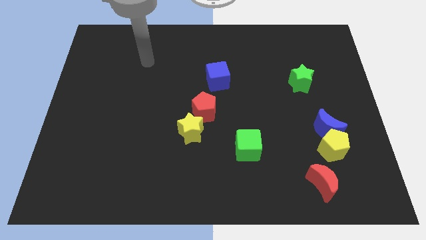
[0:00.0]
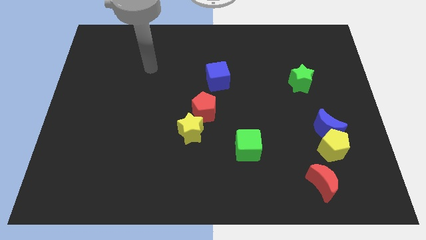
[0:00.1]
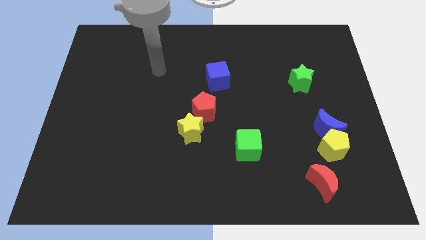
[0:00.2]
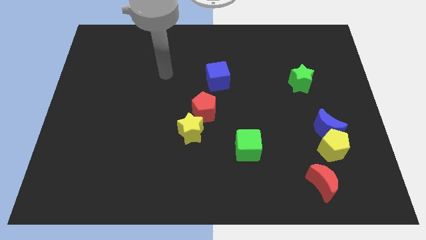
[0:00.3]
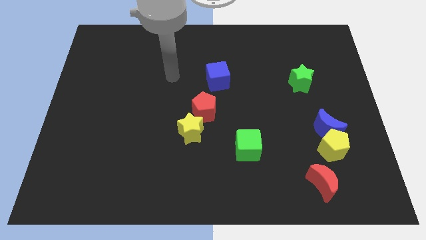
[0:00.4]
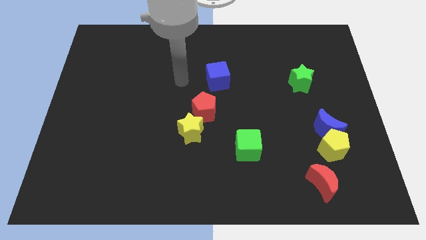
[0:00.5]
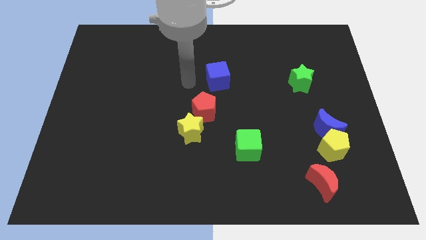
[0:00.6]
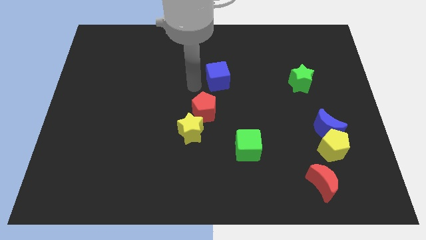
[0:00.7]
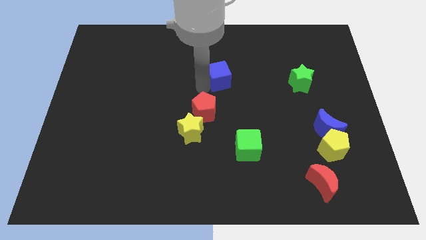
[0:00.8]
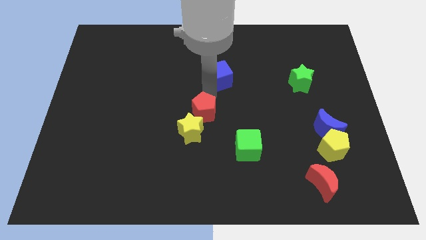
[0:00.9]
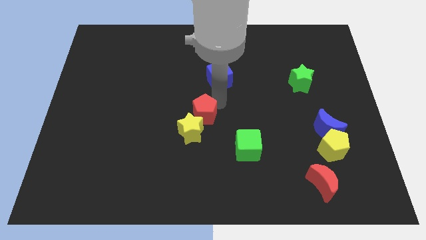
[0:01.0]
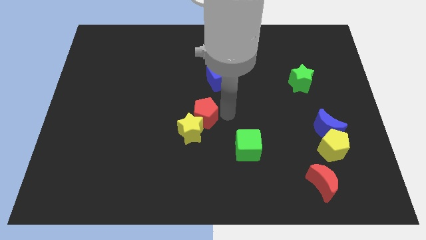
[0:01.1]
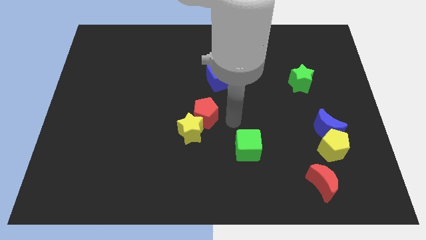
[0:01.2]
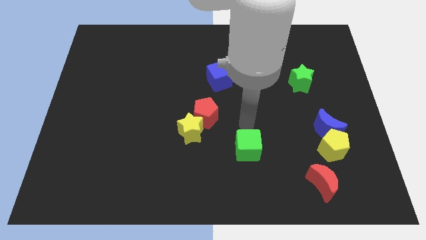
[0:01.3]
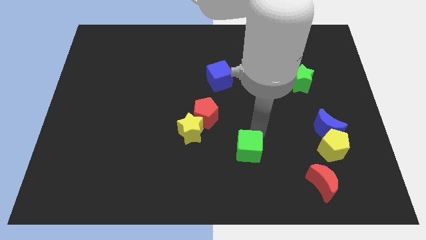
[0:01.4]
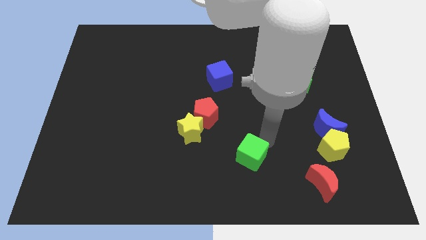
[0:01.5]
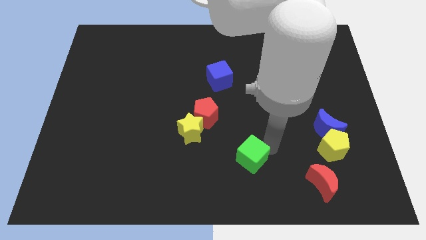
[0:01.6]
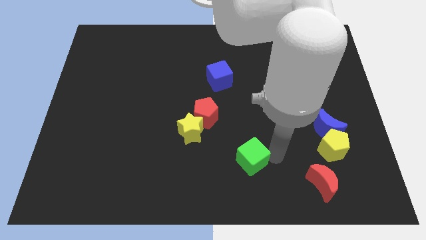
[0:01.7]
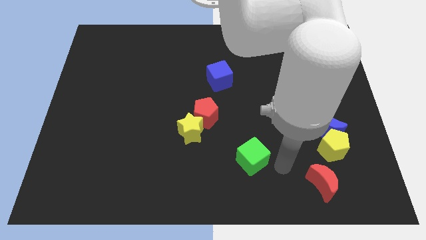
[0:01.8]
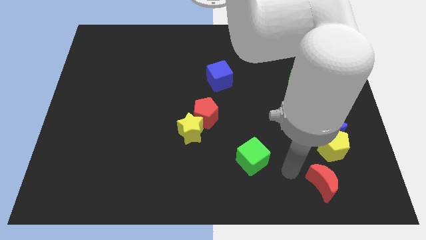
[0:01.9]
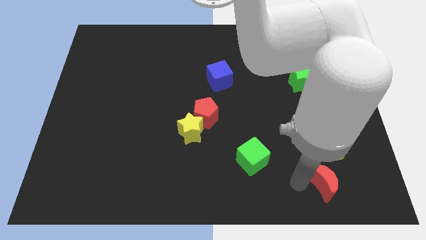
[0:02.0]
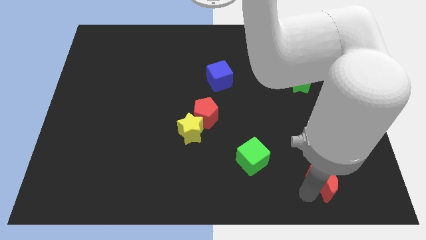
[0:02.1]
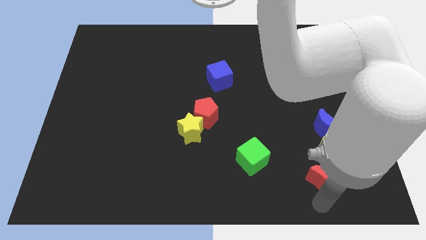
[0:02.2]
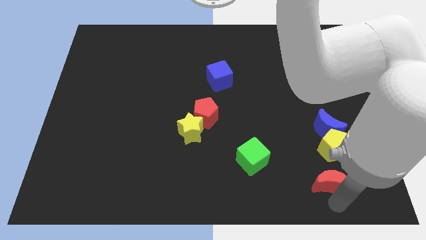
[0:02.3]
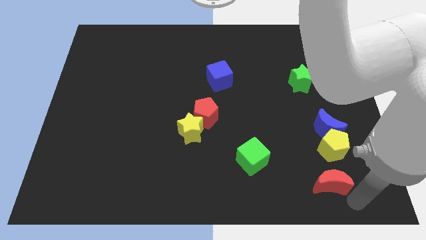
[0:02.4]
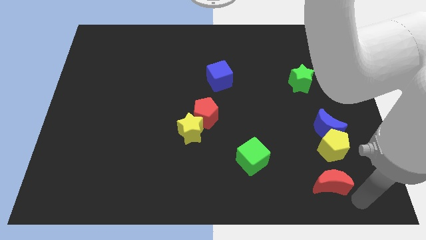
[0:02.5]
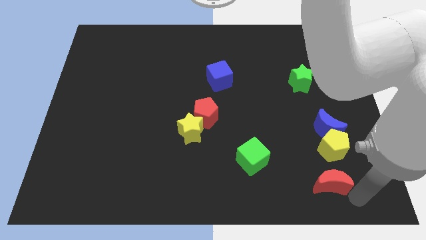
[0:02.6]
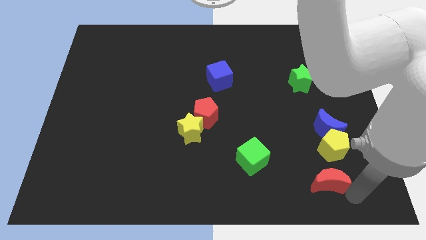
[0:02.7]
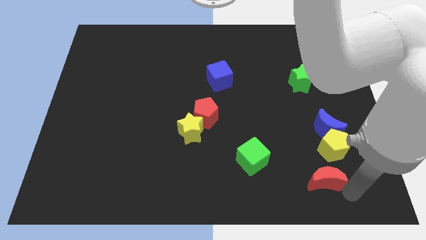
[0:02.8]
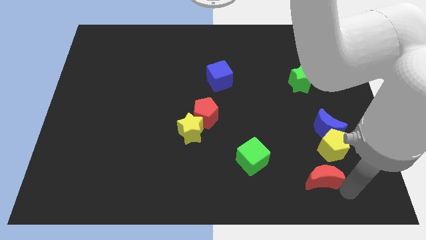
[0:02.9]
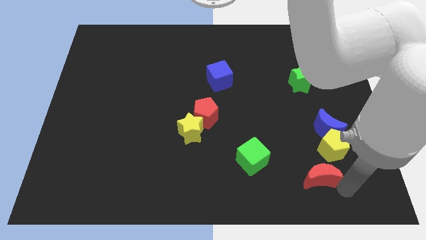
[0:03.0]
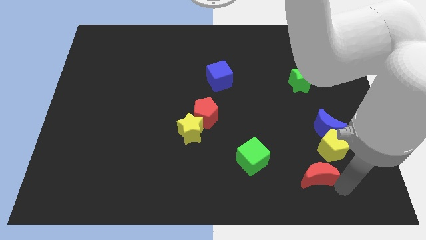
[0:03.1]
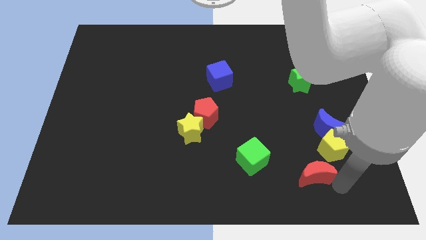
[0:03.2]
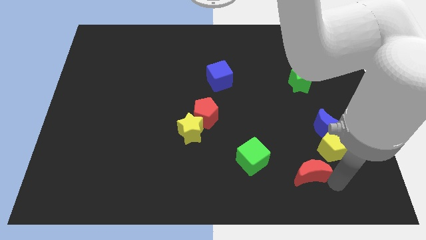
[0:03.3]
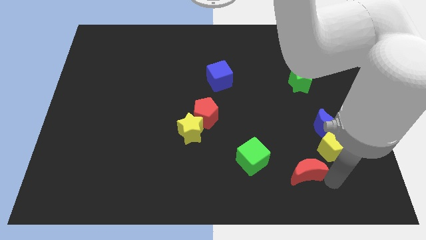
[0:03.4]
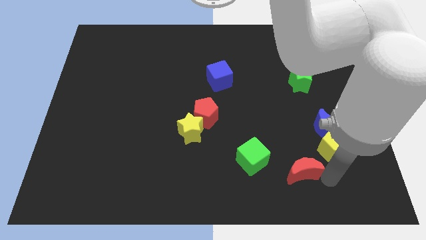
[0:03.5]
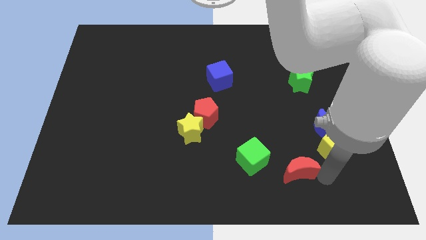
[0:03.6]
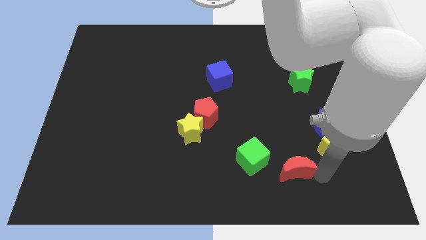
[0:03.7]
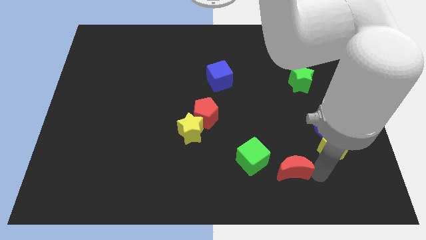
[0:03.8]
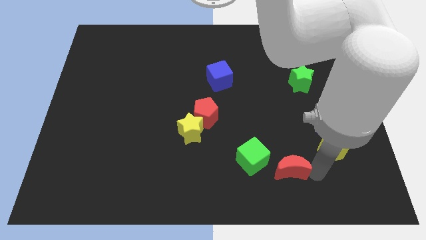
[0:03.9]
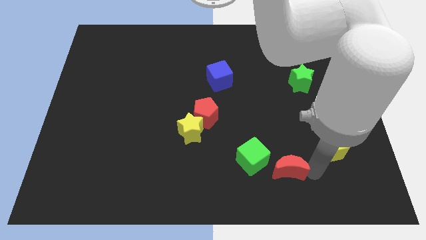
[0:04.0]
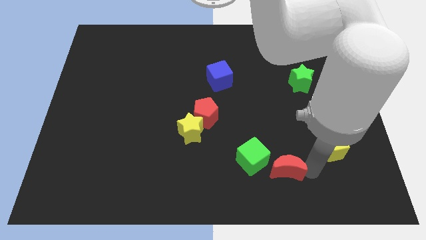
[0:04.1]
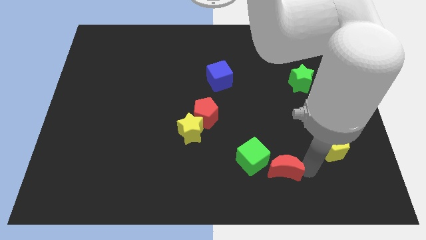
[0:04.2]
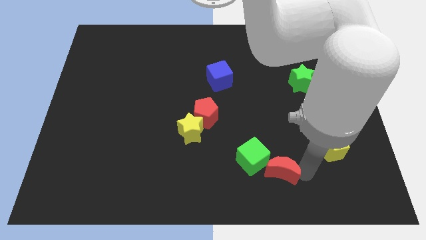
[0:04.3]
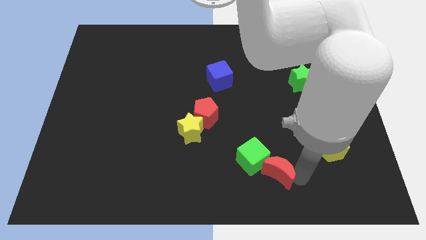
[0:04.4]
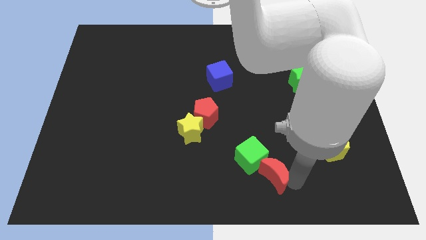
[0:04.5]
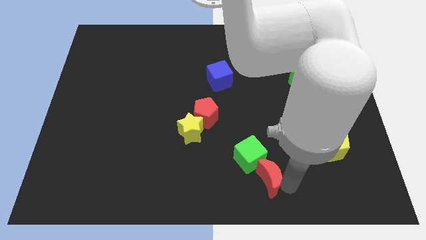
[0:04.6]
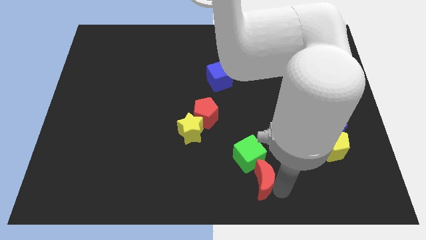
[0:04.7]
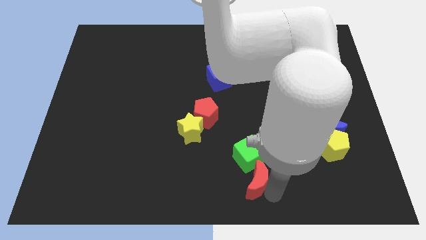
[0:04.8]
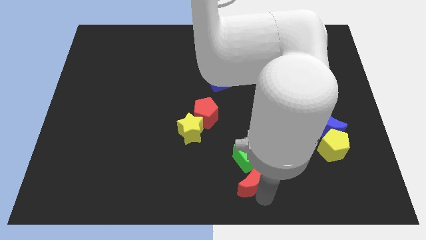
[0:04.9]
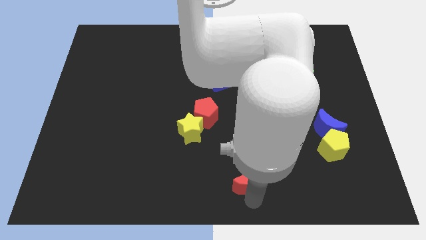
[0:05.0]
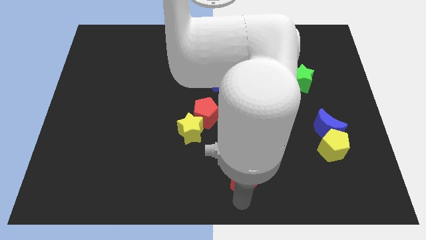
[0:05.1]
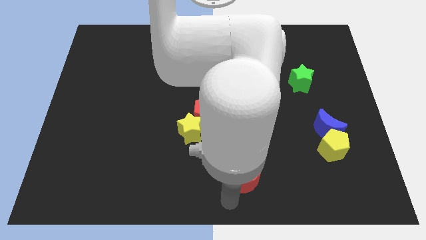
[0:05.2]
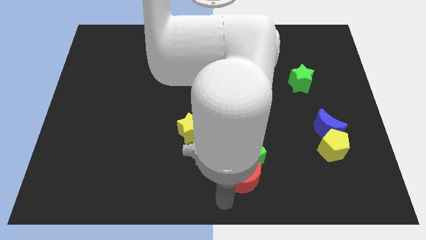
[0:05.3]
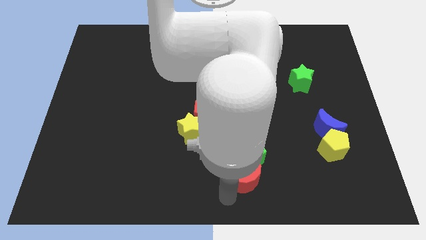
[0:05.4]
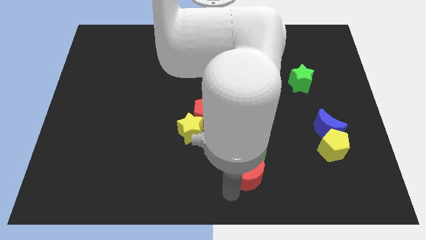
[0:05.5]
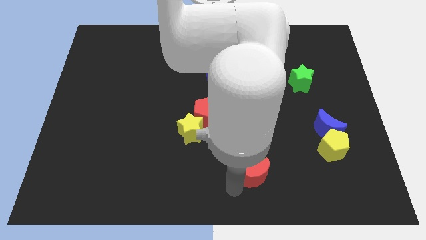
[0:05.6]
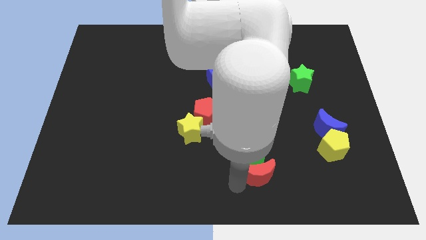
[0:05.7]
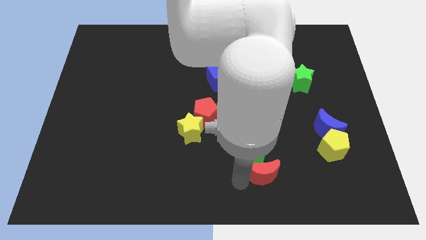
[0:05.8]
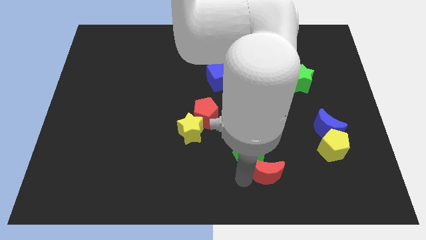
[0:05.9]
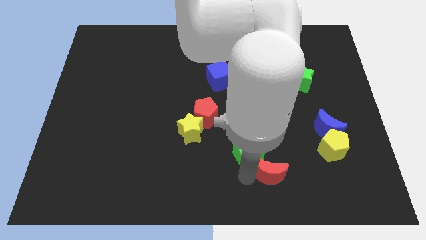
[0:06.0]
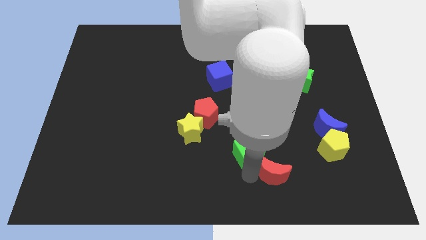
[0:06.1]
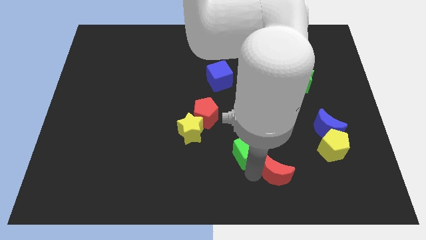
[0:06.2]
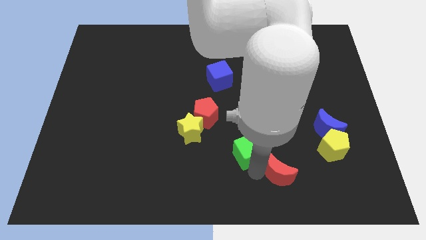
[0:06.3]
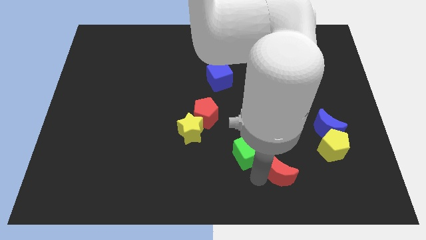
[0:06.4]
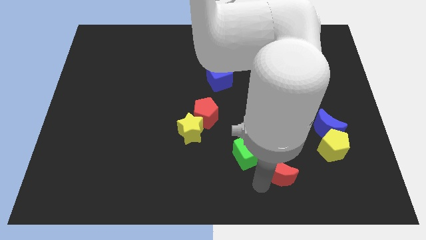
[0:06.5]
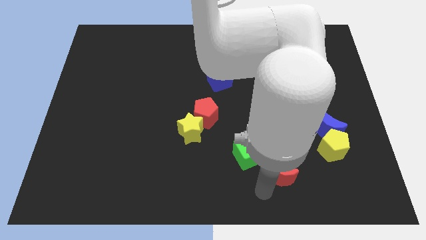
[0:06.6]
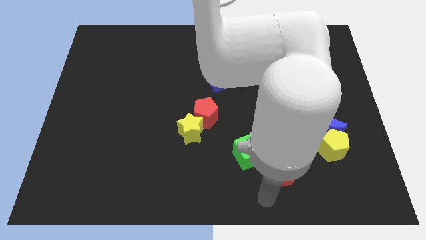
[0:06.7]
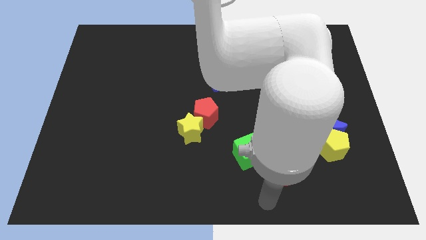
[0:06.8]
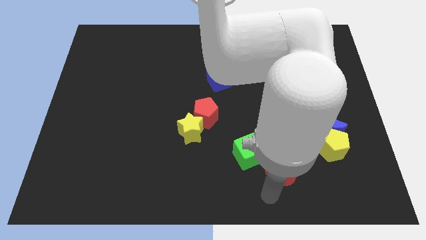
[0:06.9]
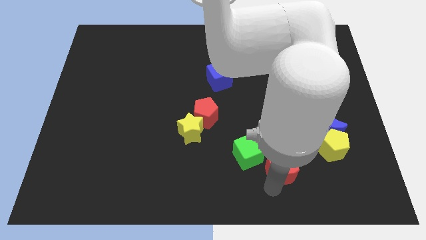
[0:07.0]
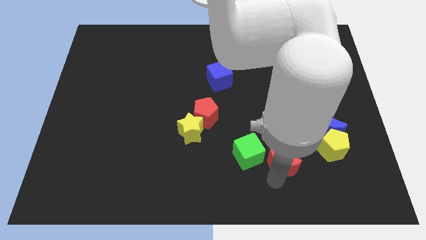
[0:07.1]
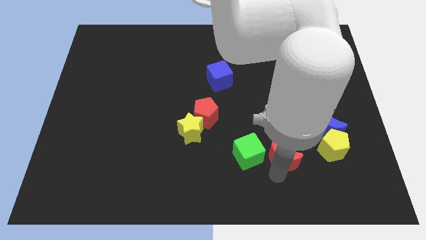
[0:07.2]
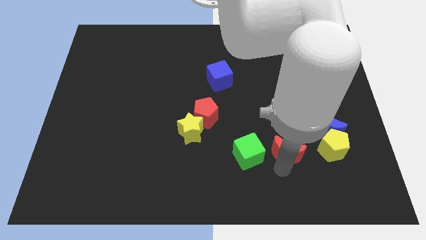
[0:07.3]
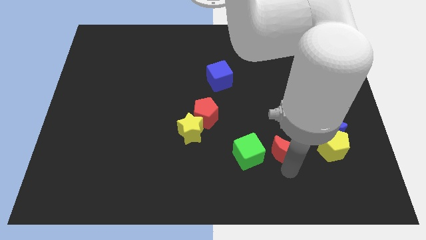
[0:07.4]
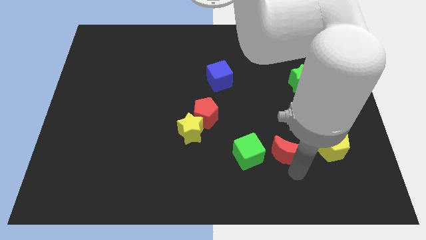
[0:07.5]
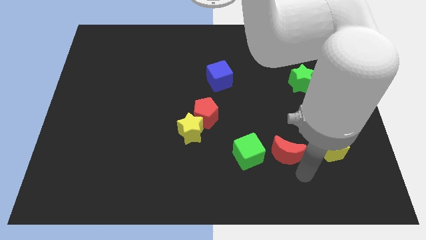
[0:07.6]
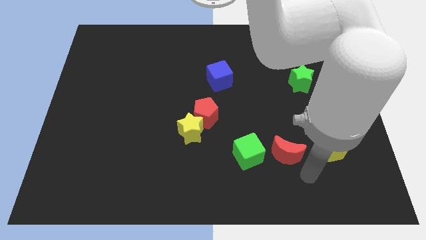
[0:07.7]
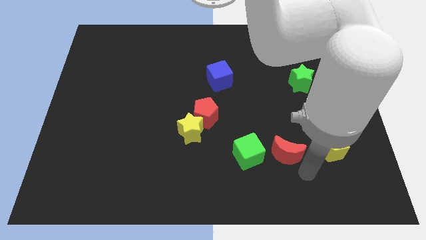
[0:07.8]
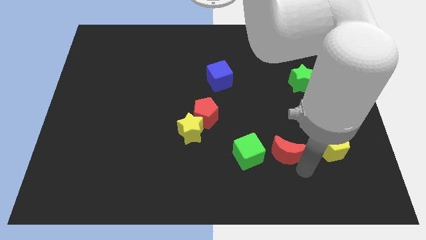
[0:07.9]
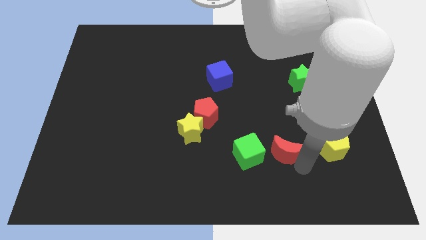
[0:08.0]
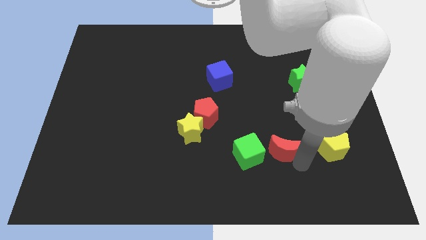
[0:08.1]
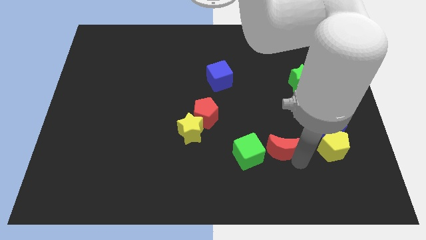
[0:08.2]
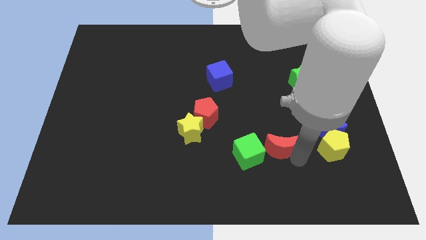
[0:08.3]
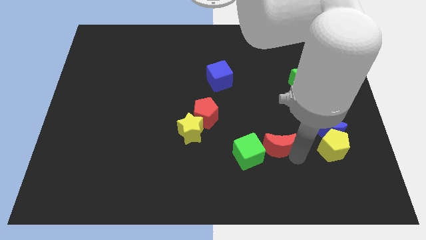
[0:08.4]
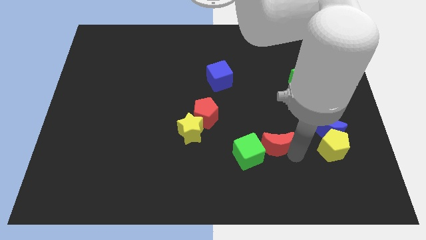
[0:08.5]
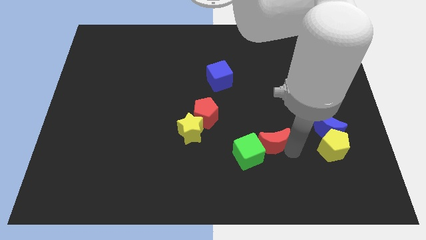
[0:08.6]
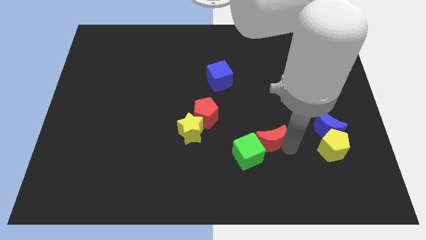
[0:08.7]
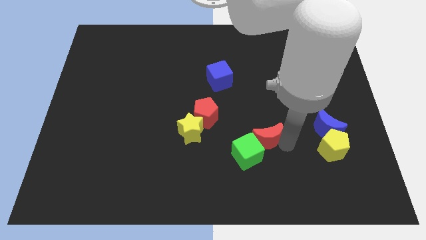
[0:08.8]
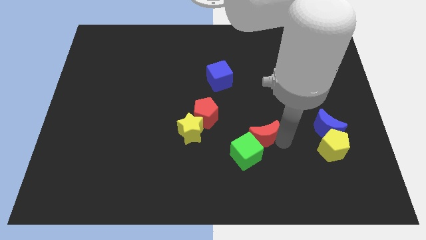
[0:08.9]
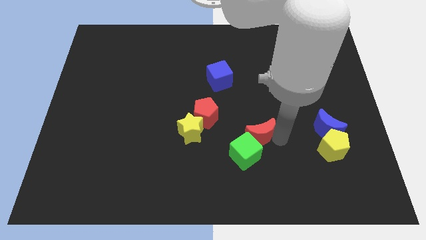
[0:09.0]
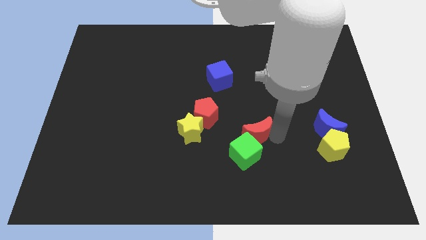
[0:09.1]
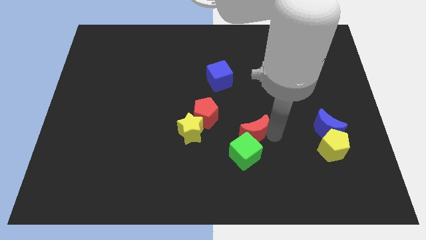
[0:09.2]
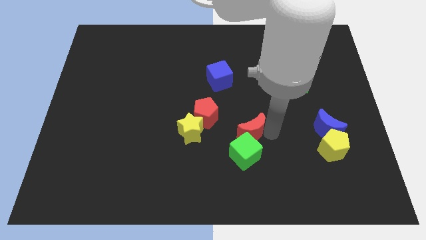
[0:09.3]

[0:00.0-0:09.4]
put the red moon to the middle
